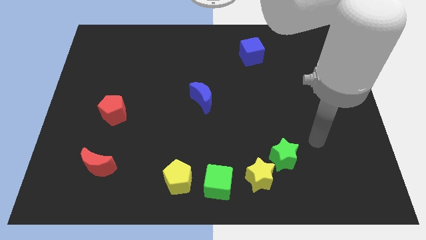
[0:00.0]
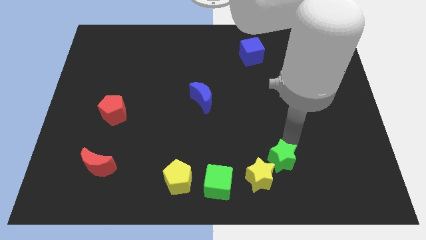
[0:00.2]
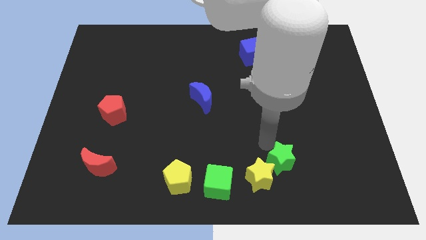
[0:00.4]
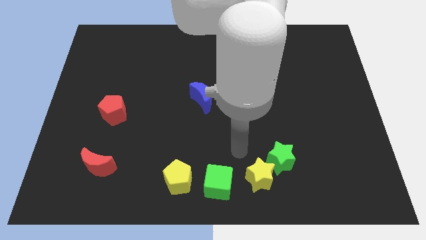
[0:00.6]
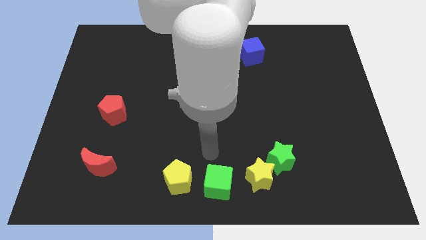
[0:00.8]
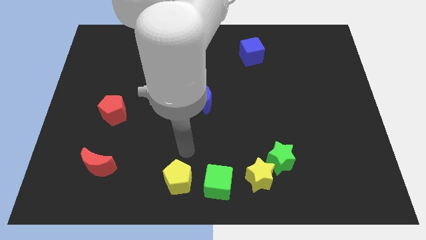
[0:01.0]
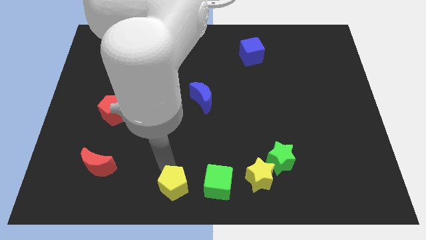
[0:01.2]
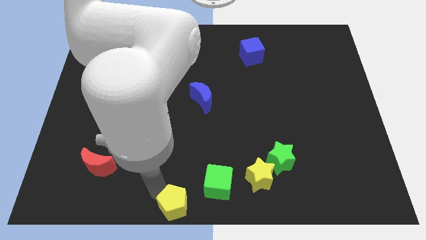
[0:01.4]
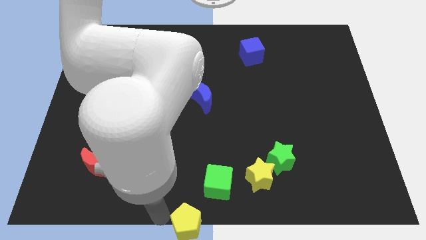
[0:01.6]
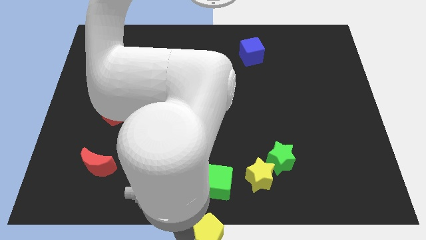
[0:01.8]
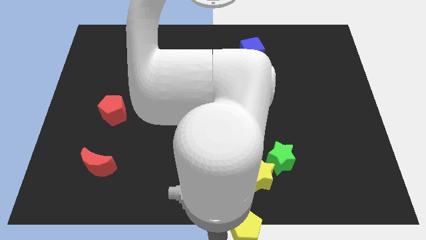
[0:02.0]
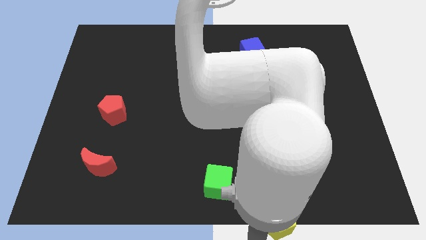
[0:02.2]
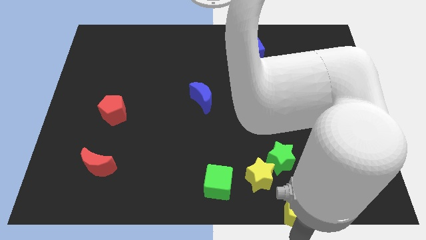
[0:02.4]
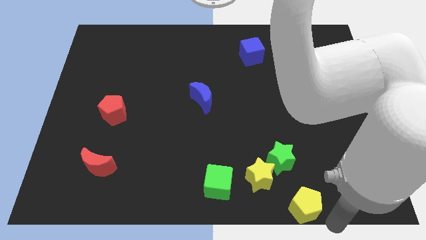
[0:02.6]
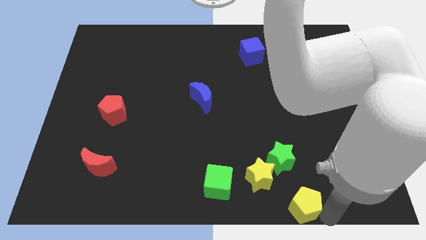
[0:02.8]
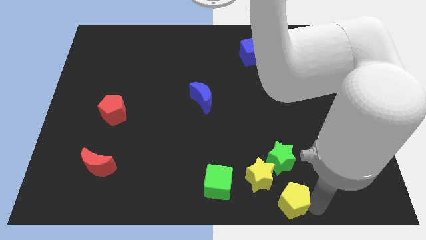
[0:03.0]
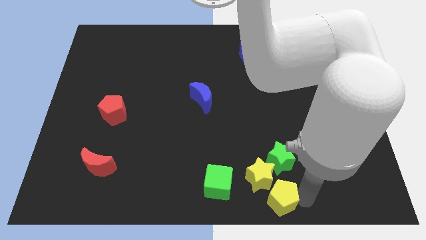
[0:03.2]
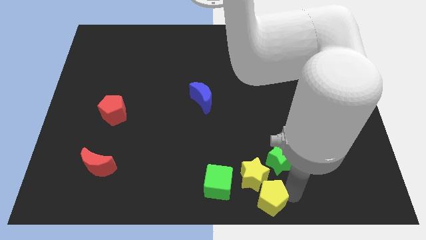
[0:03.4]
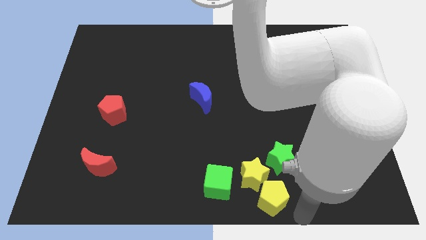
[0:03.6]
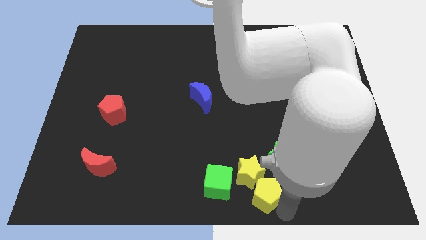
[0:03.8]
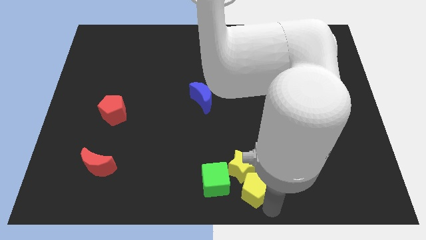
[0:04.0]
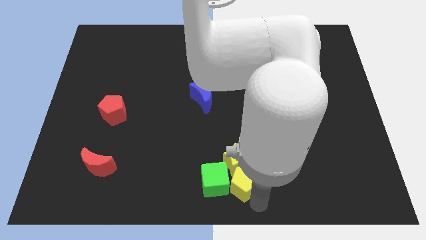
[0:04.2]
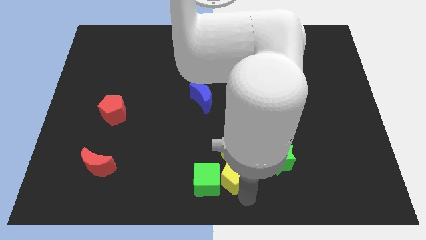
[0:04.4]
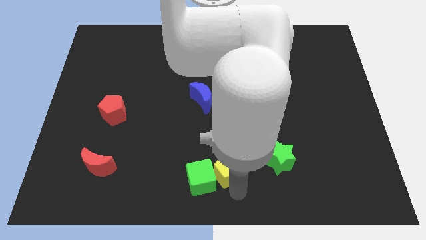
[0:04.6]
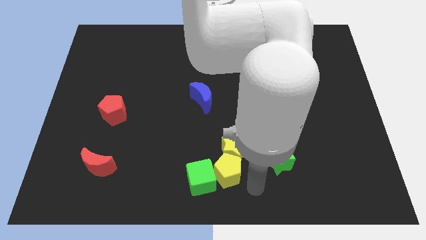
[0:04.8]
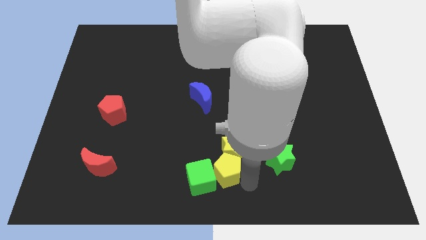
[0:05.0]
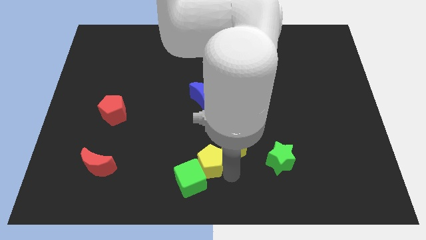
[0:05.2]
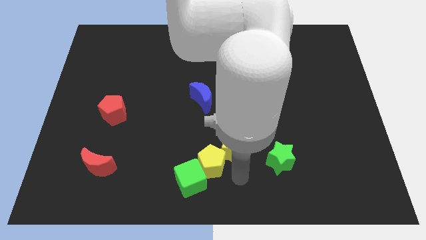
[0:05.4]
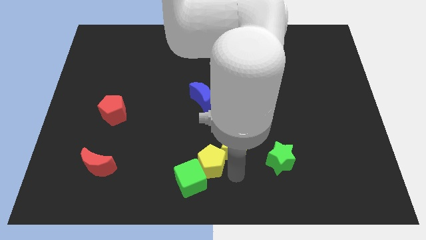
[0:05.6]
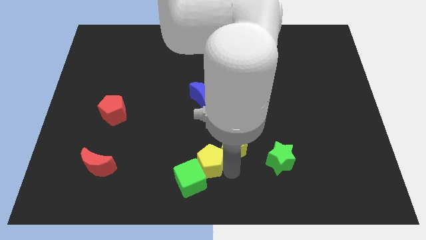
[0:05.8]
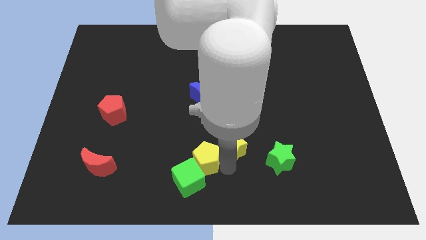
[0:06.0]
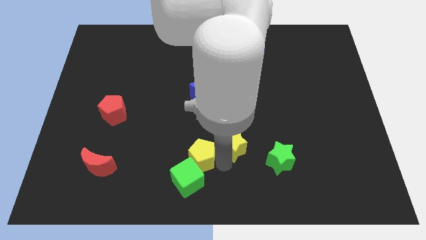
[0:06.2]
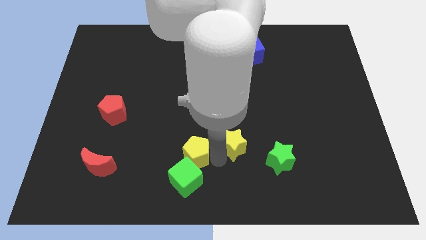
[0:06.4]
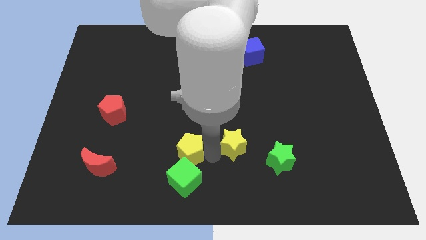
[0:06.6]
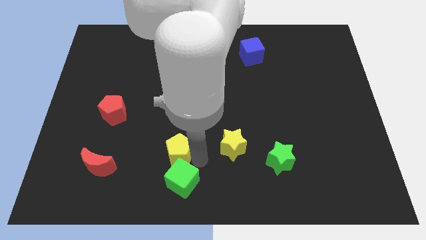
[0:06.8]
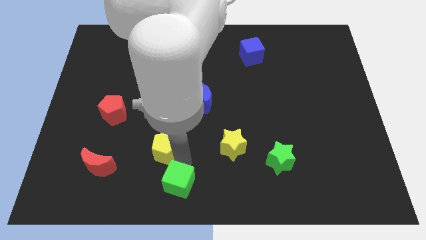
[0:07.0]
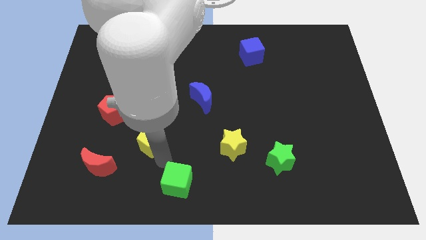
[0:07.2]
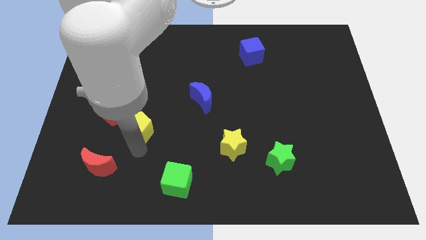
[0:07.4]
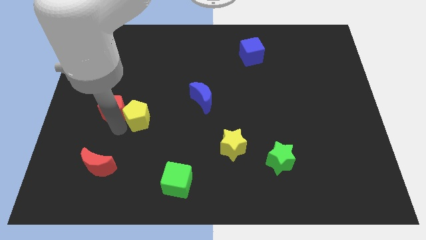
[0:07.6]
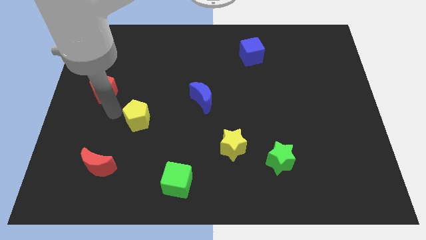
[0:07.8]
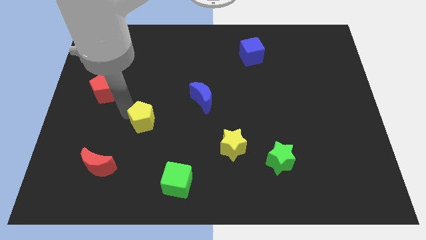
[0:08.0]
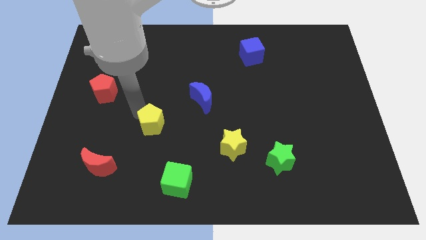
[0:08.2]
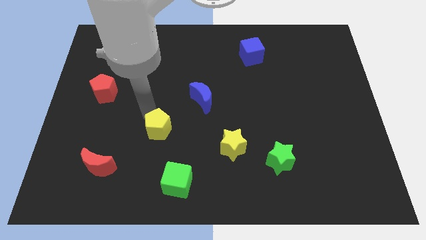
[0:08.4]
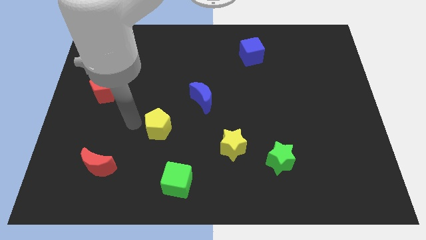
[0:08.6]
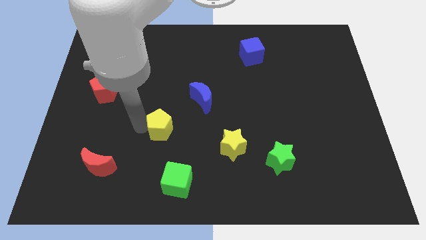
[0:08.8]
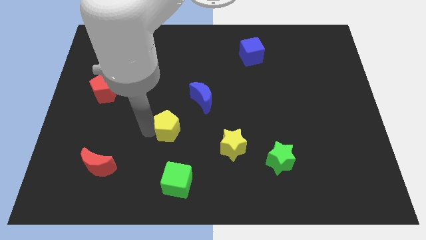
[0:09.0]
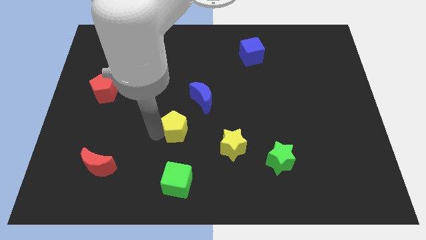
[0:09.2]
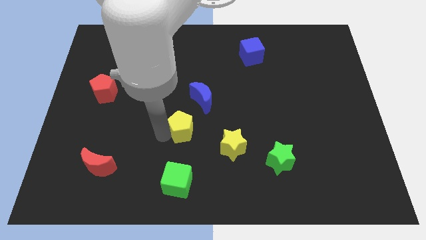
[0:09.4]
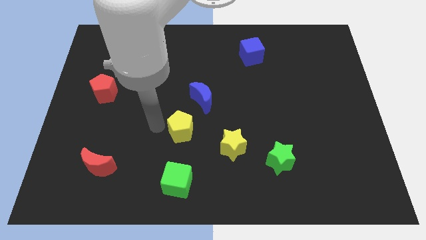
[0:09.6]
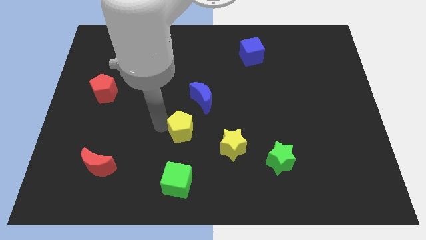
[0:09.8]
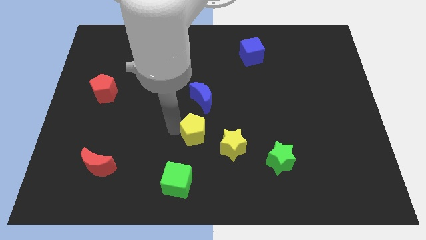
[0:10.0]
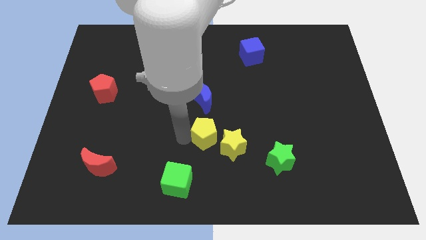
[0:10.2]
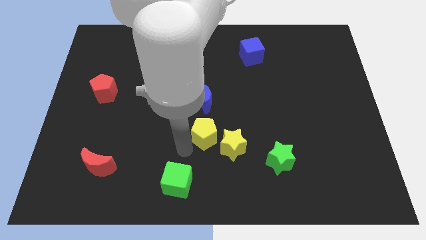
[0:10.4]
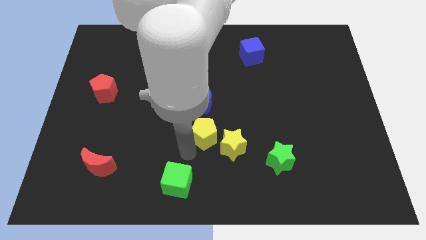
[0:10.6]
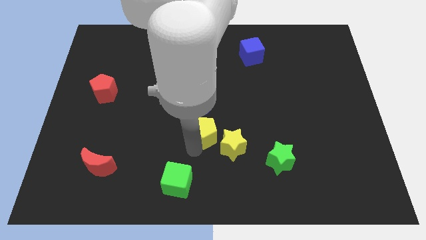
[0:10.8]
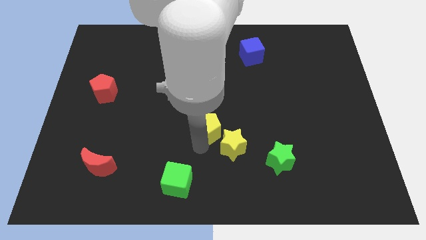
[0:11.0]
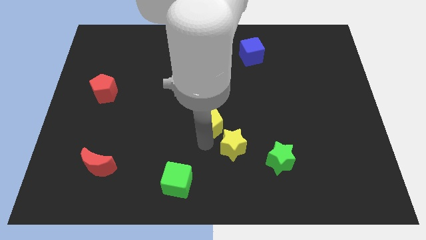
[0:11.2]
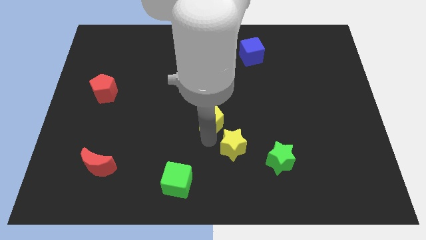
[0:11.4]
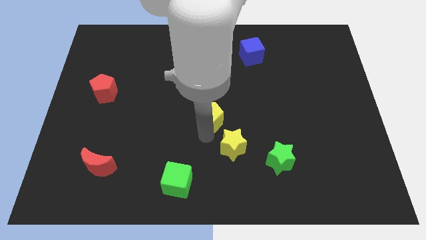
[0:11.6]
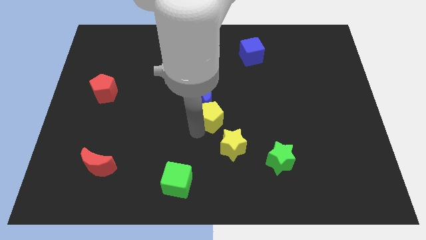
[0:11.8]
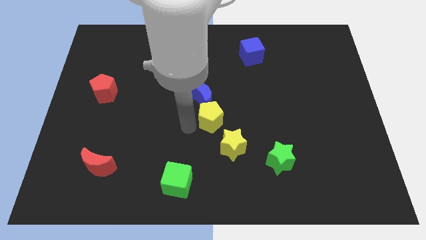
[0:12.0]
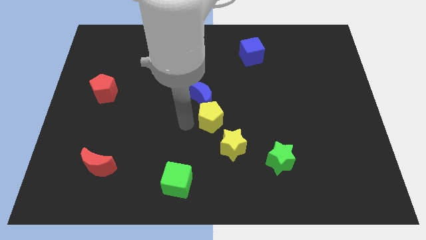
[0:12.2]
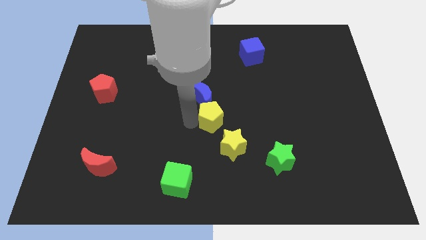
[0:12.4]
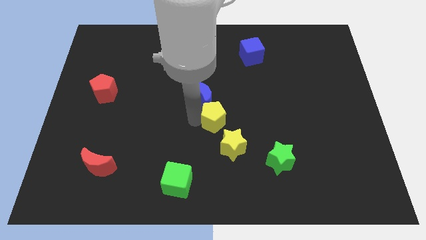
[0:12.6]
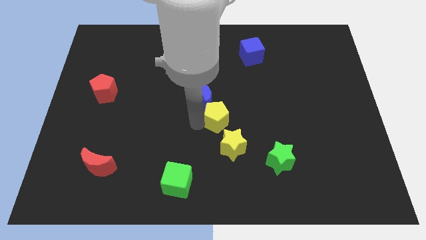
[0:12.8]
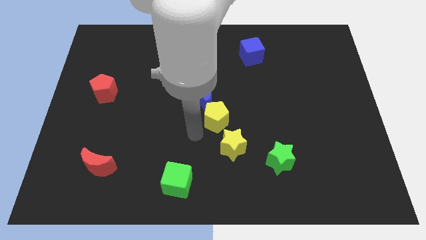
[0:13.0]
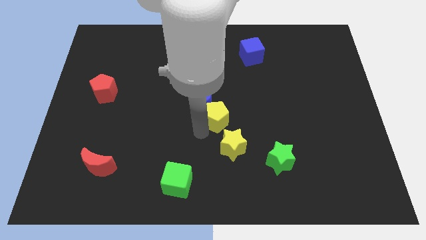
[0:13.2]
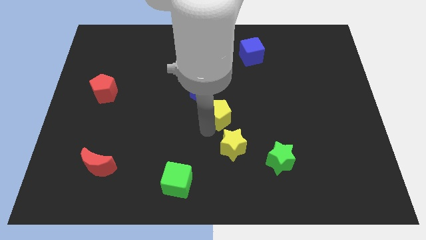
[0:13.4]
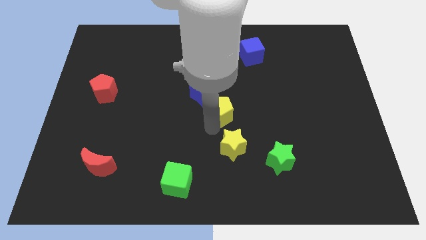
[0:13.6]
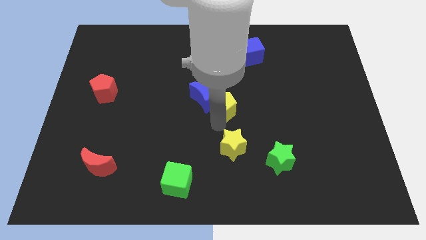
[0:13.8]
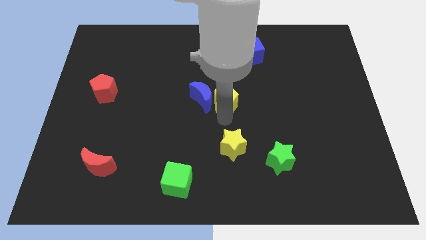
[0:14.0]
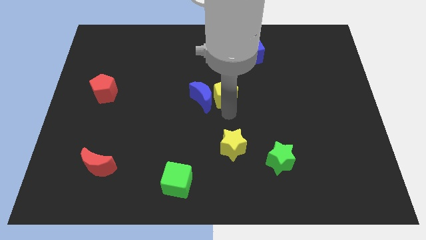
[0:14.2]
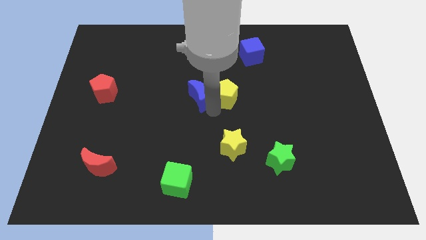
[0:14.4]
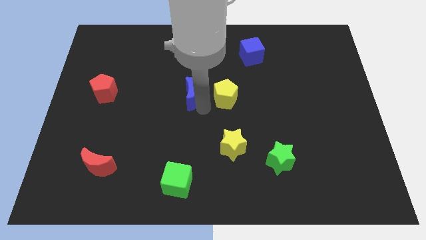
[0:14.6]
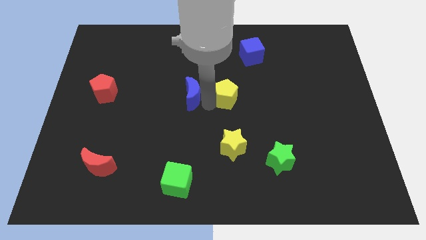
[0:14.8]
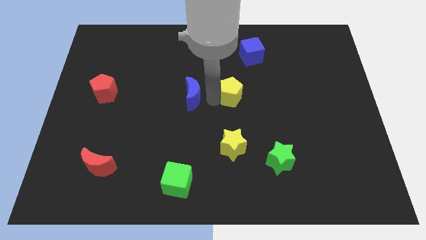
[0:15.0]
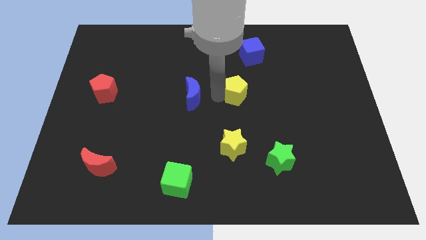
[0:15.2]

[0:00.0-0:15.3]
put the yellow pentagon below the blue cube
